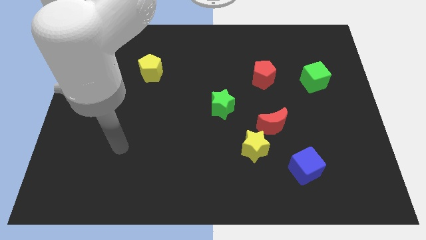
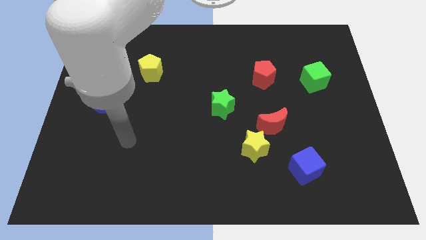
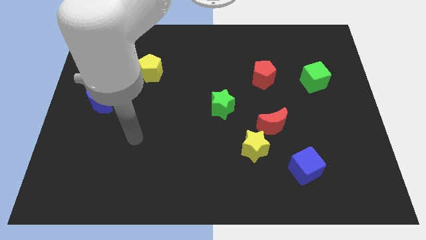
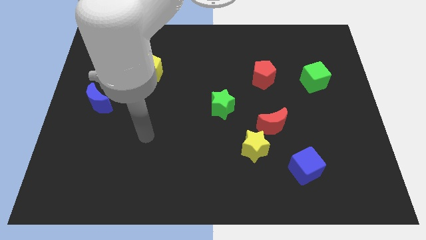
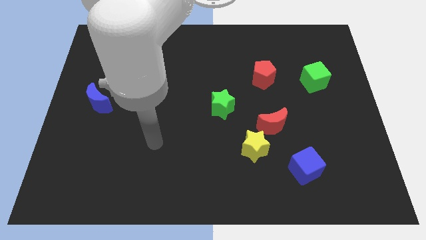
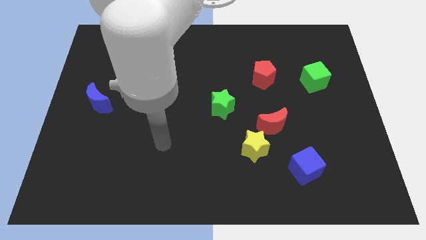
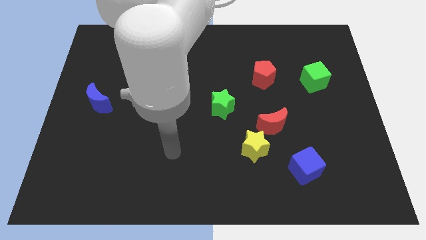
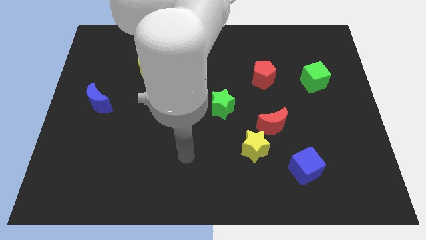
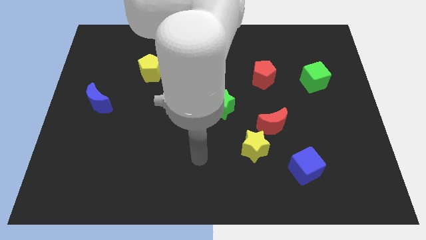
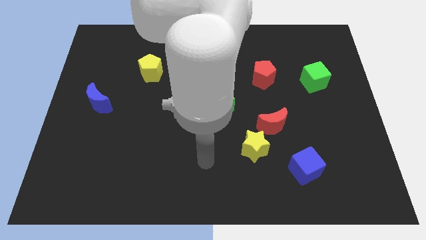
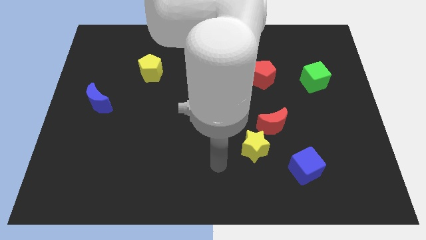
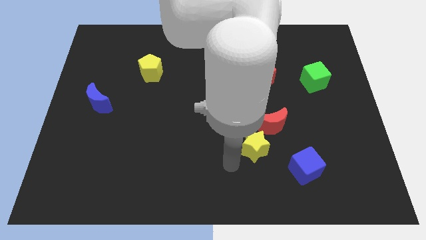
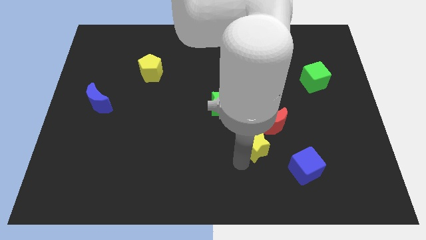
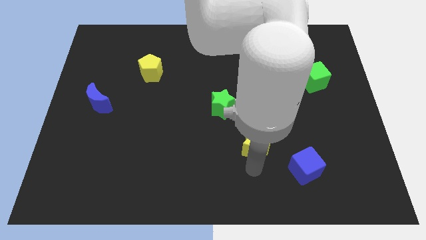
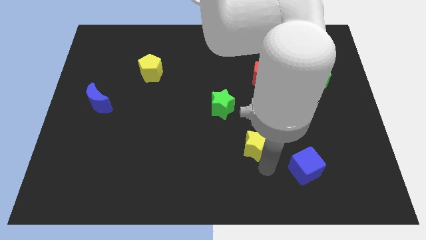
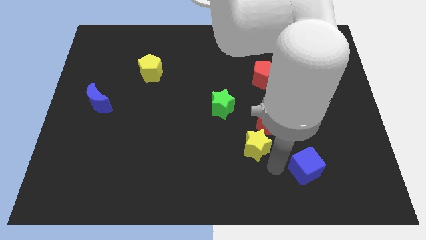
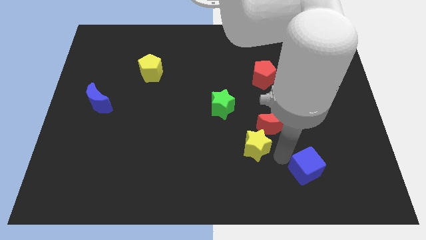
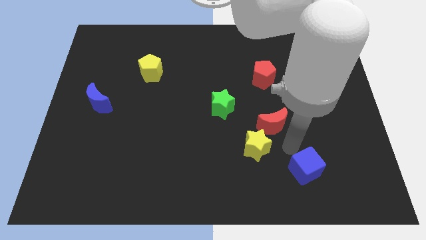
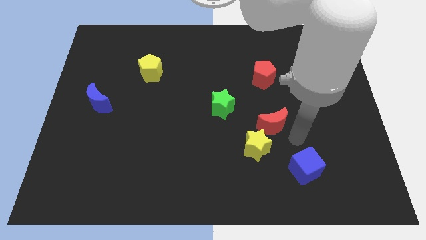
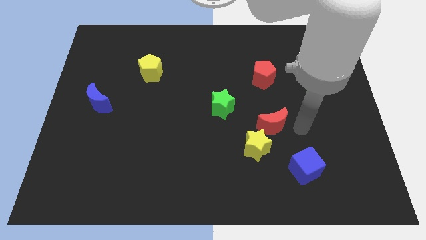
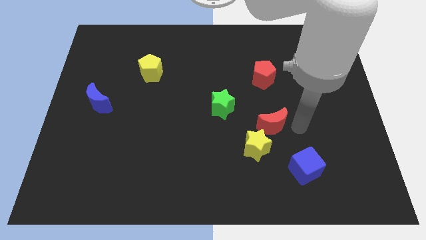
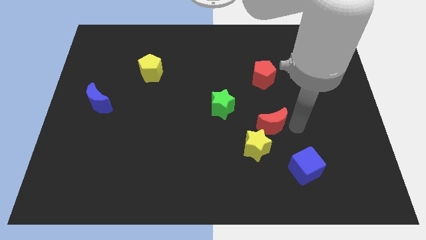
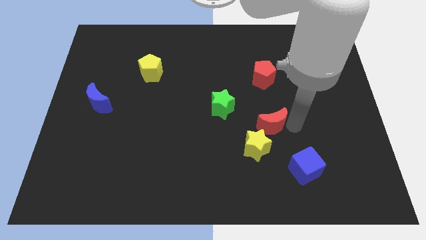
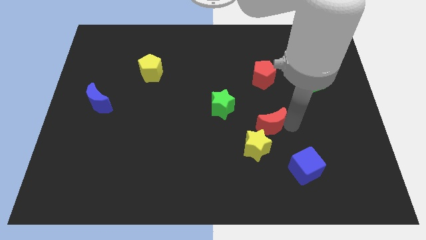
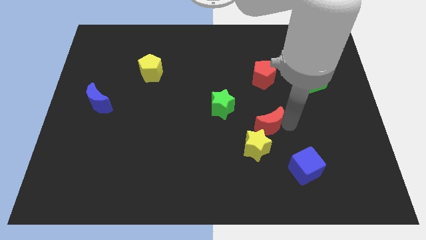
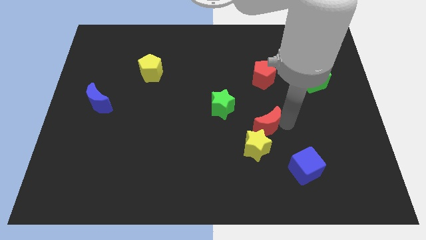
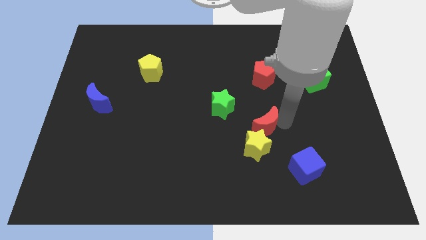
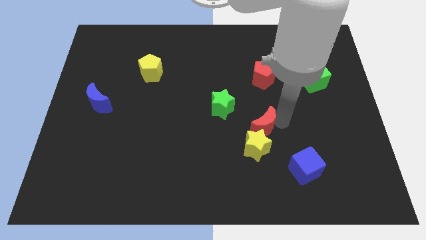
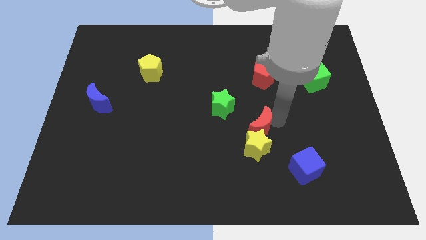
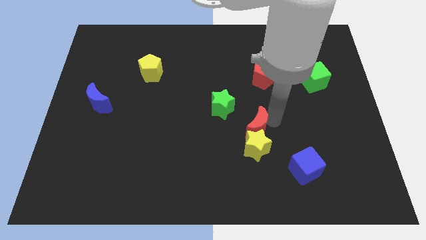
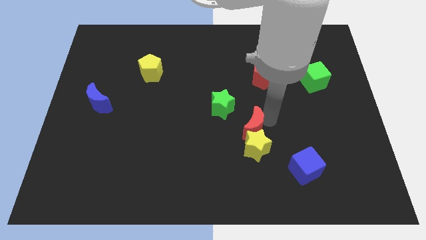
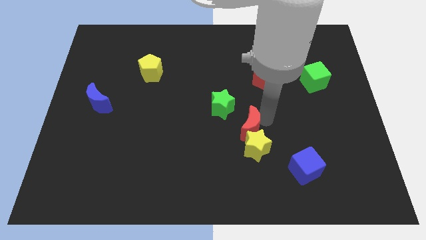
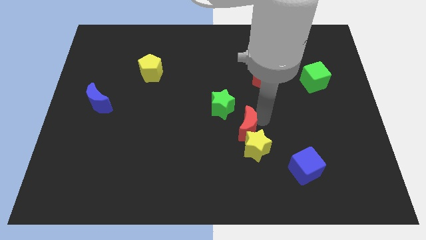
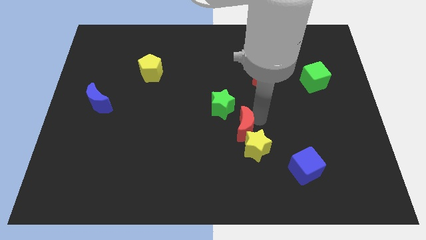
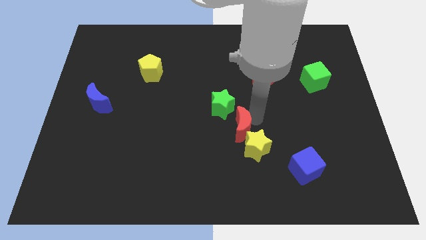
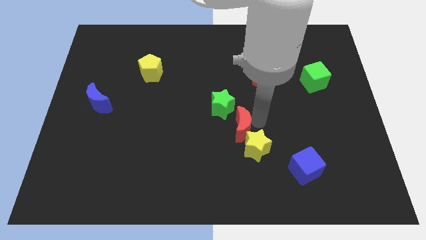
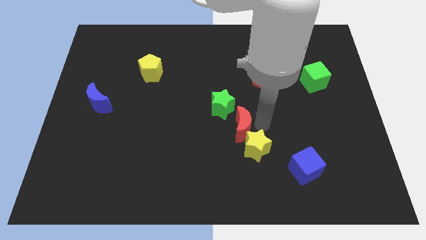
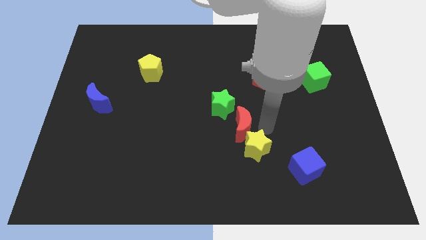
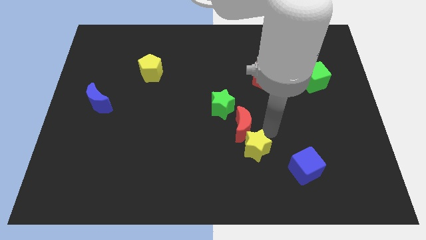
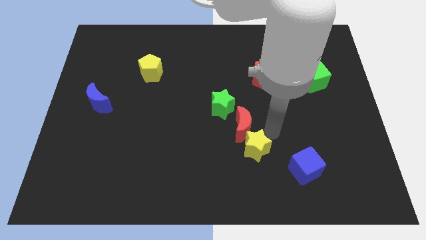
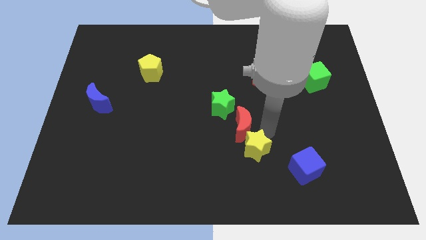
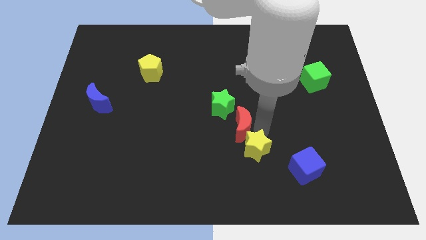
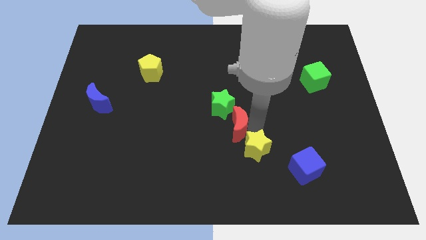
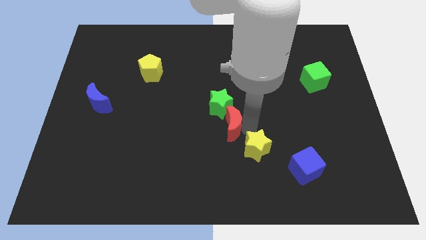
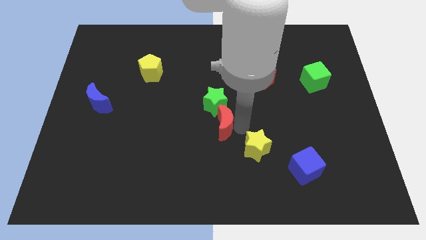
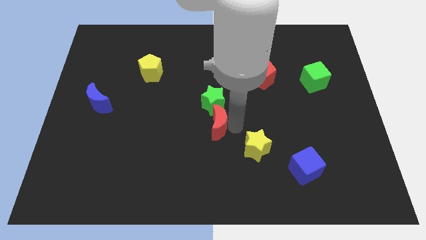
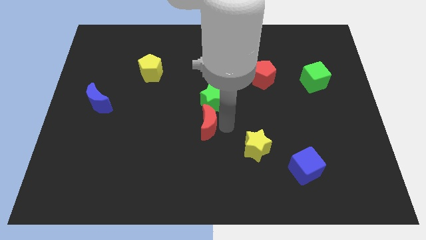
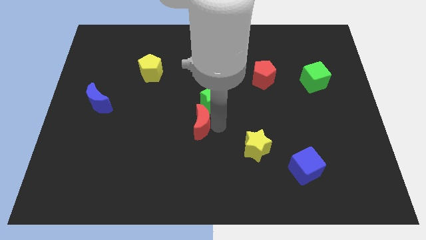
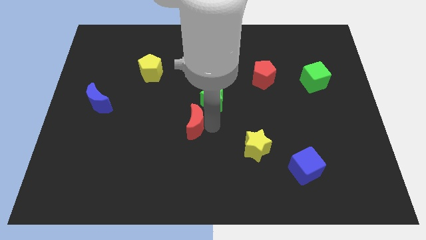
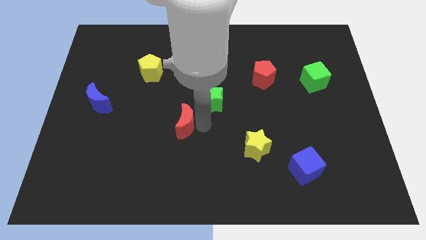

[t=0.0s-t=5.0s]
slide the red moon left

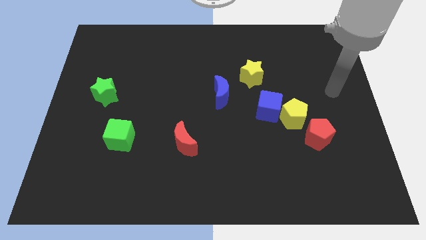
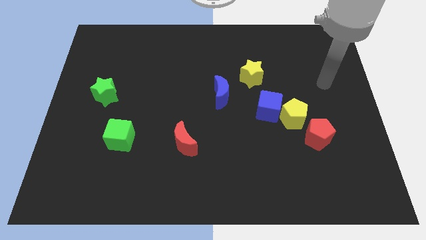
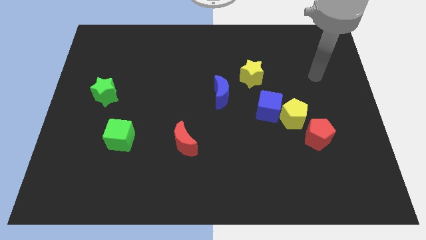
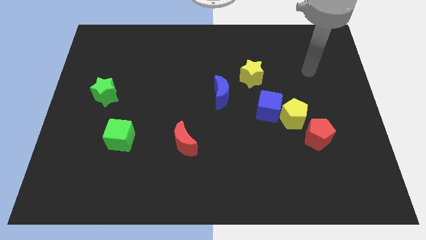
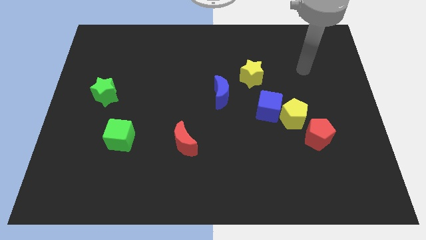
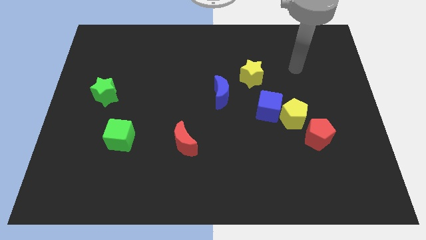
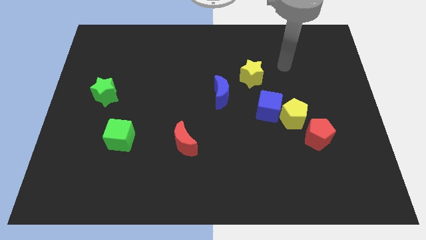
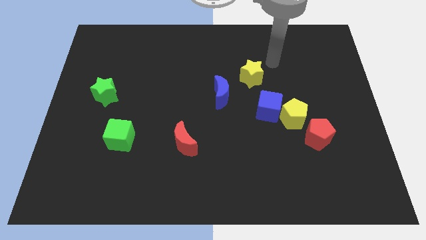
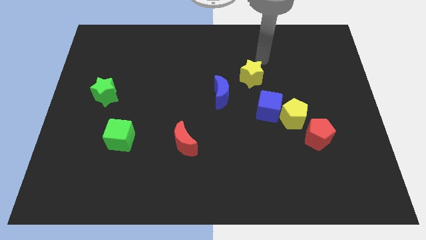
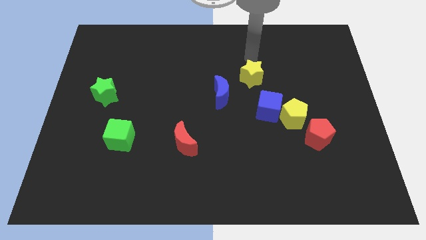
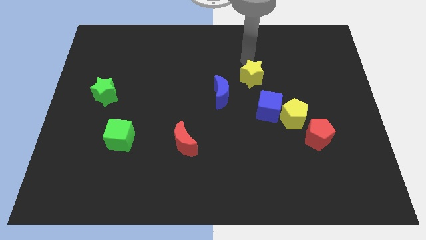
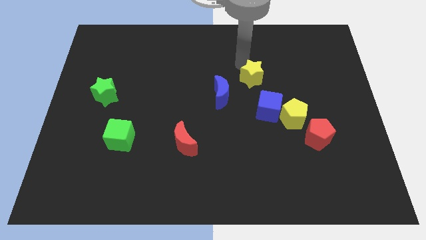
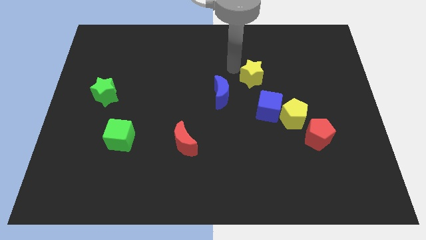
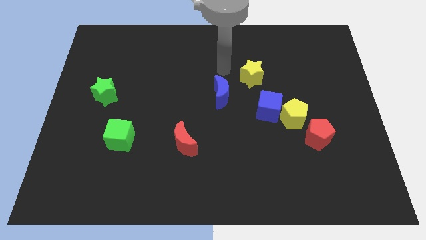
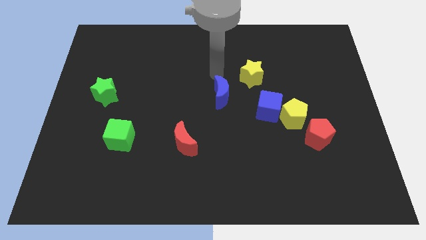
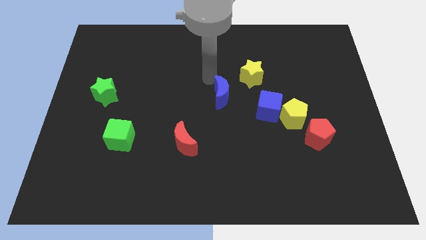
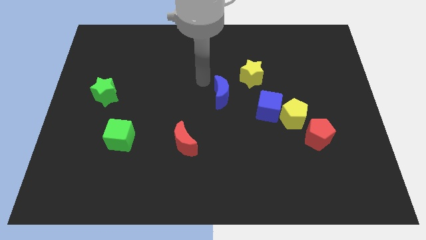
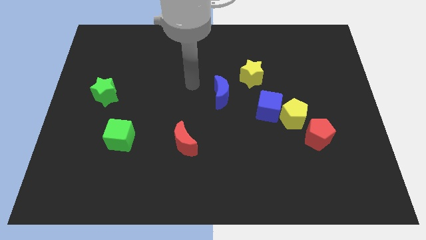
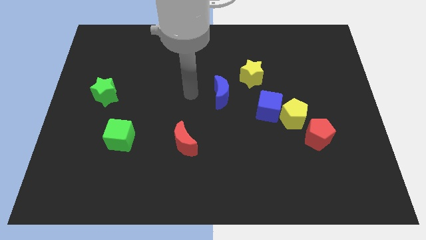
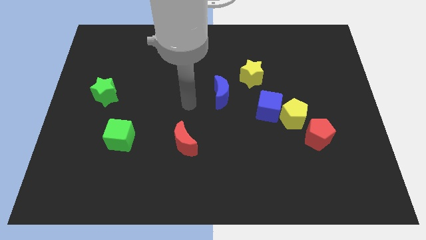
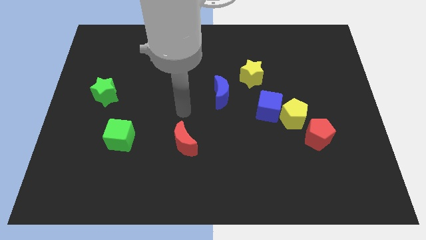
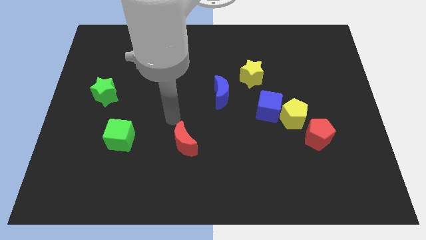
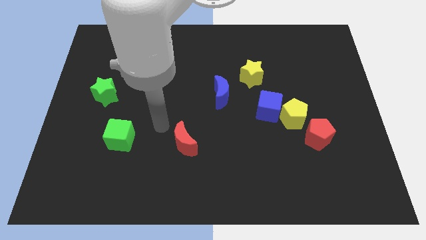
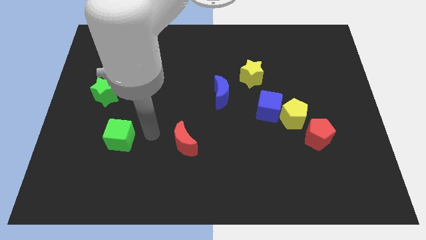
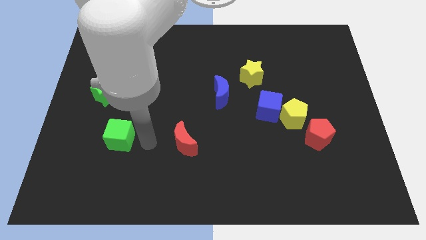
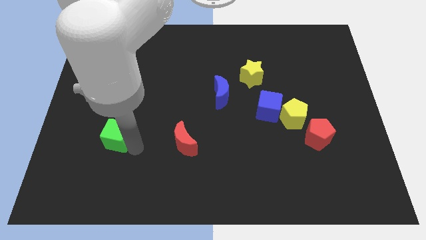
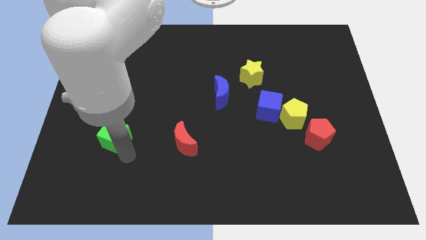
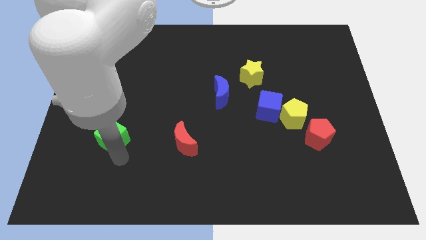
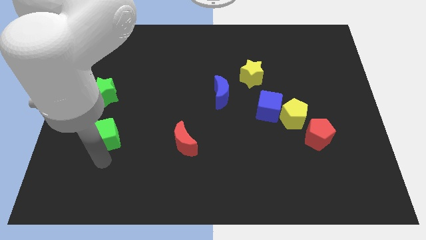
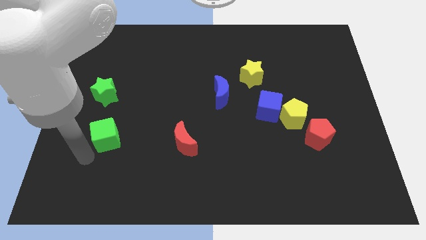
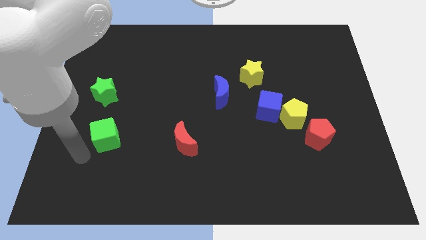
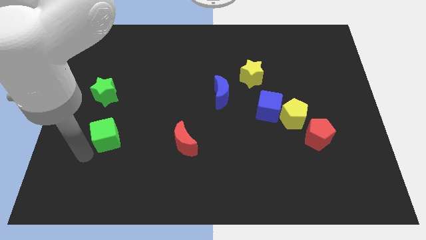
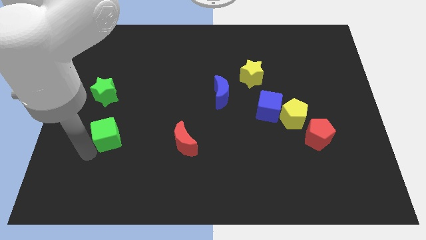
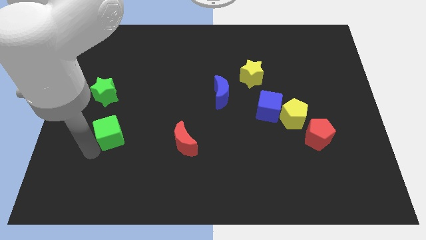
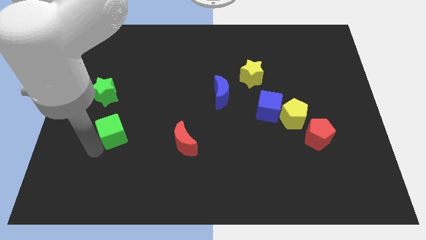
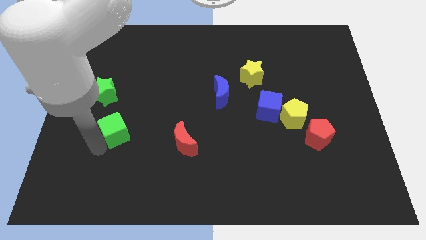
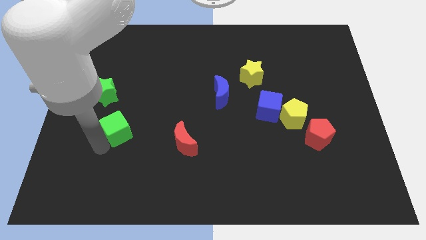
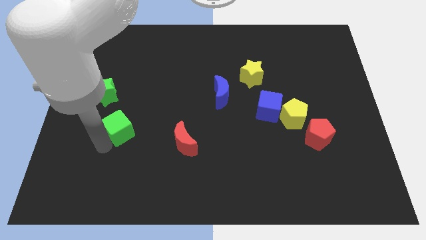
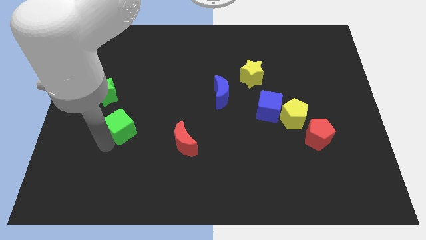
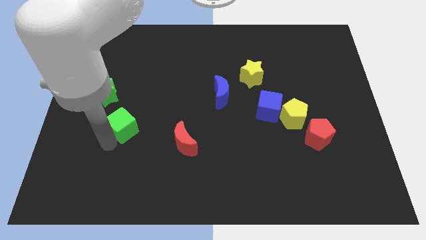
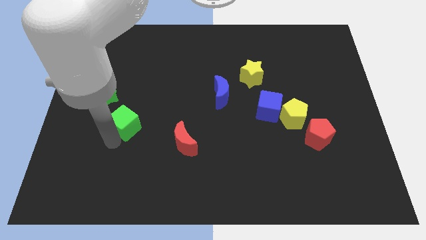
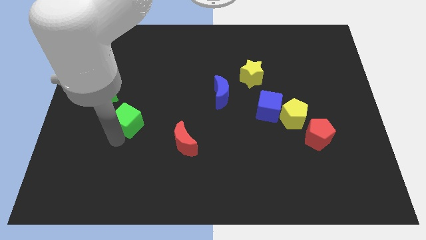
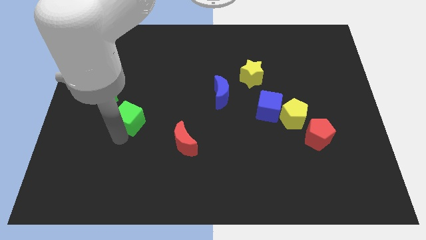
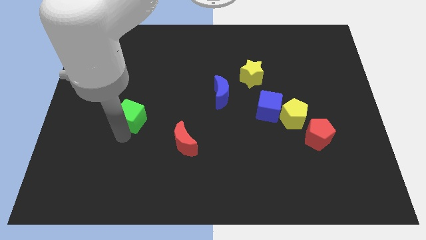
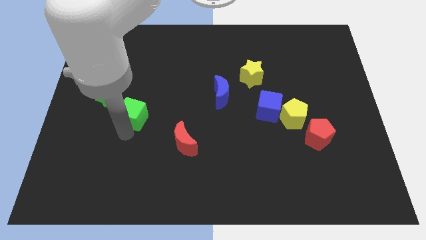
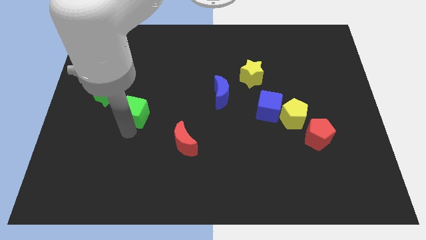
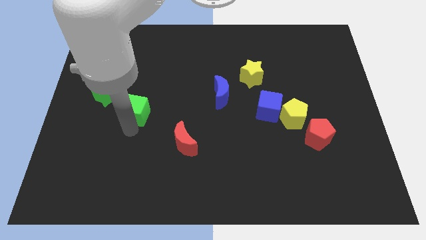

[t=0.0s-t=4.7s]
move the green cube a little bit upwards
